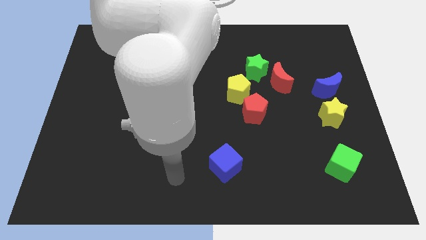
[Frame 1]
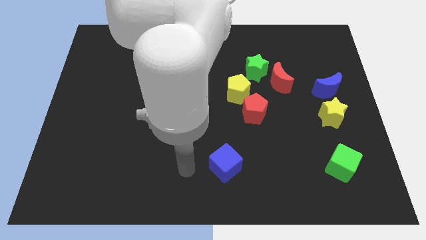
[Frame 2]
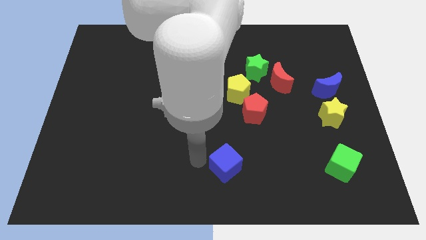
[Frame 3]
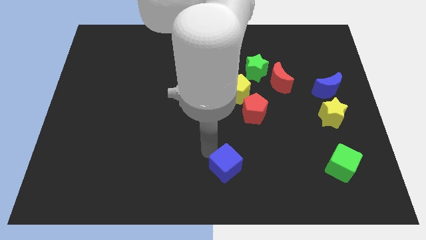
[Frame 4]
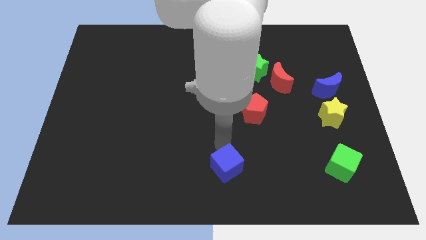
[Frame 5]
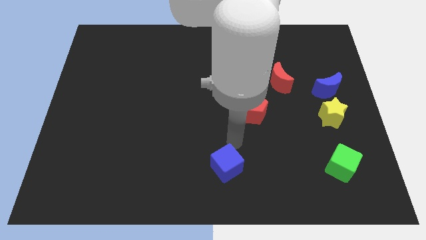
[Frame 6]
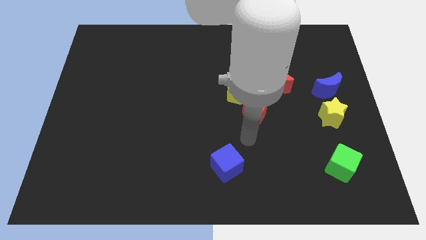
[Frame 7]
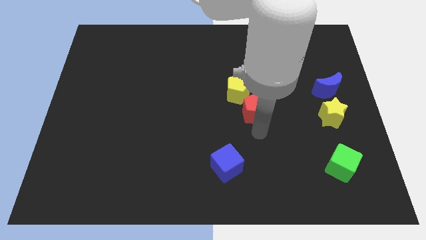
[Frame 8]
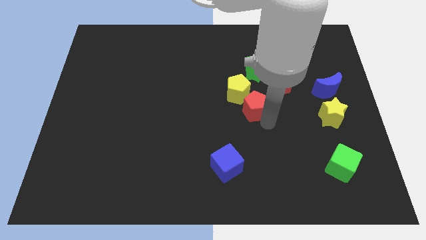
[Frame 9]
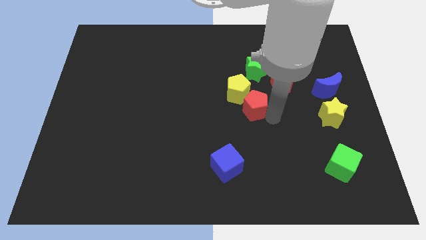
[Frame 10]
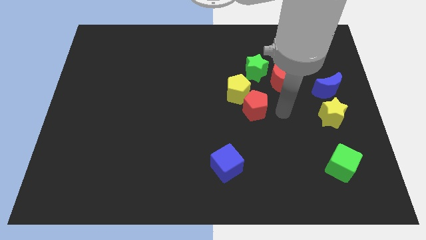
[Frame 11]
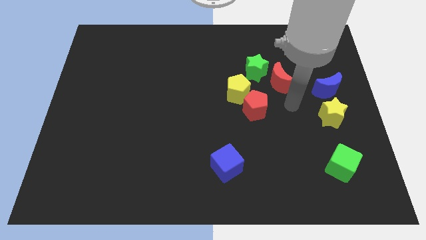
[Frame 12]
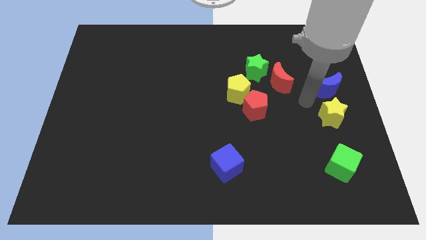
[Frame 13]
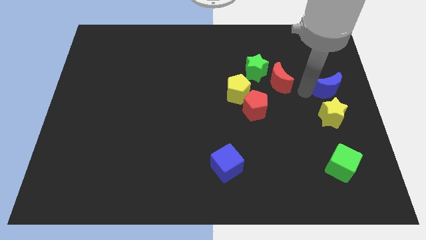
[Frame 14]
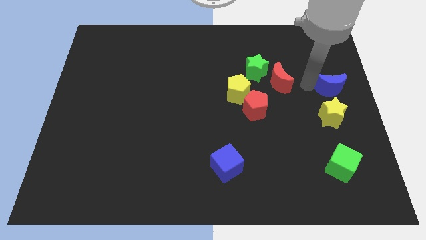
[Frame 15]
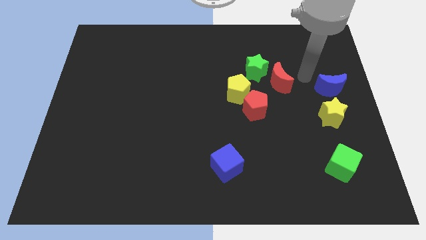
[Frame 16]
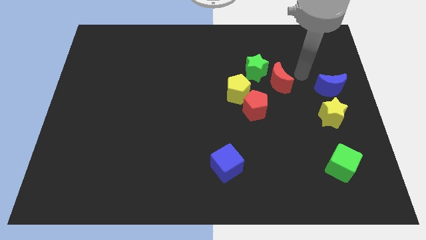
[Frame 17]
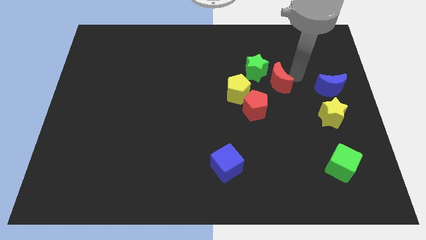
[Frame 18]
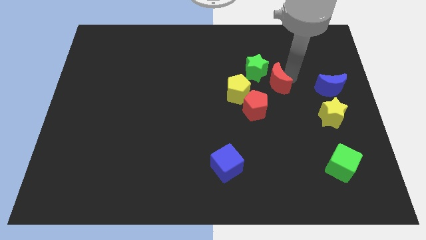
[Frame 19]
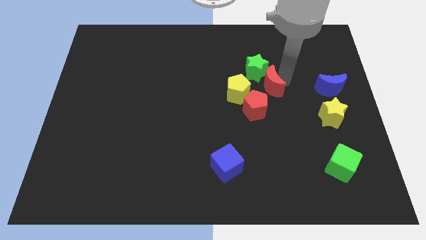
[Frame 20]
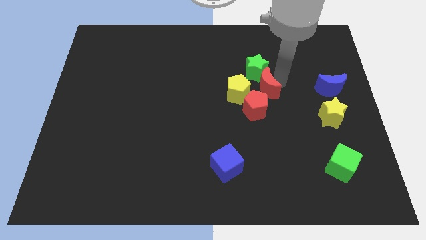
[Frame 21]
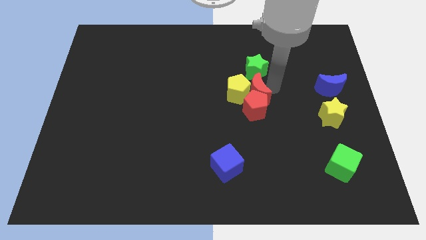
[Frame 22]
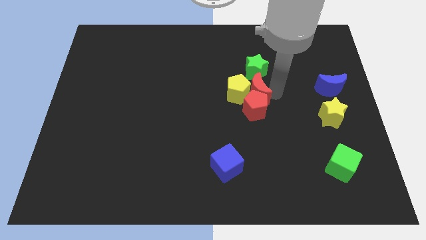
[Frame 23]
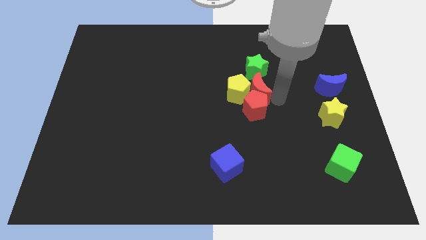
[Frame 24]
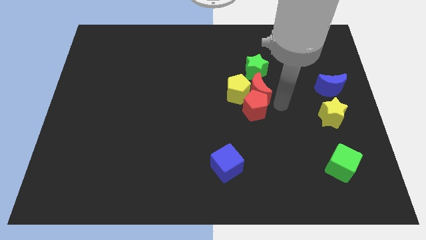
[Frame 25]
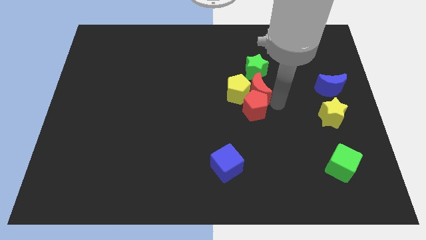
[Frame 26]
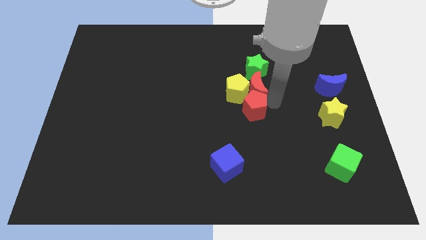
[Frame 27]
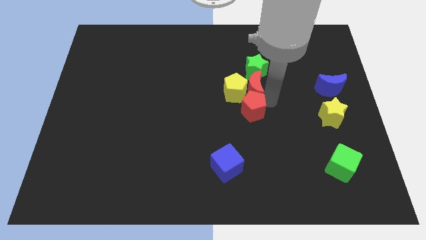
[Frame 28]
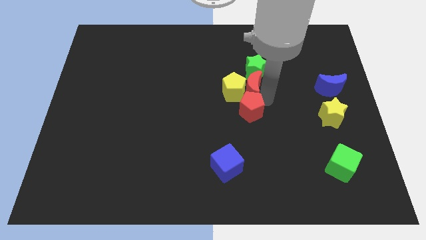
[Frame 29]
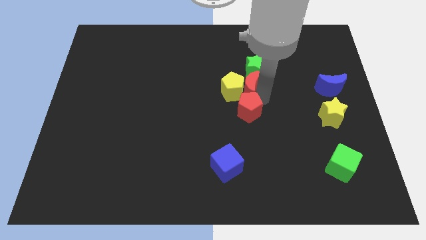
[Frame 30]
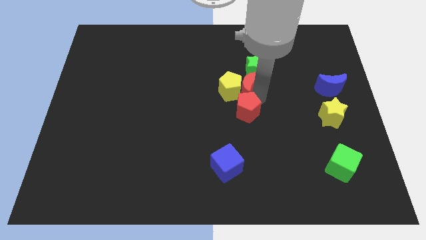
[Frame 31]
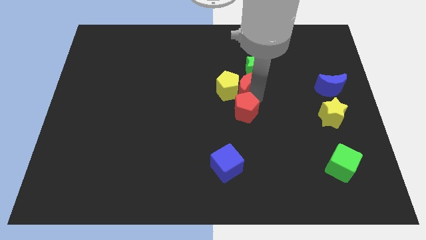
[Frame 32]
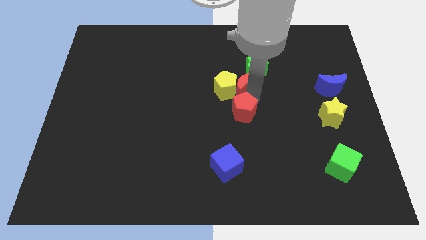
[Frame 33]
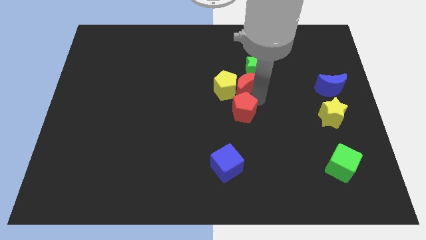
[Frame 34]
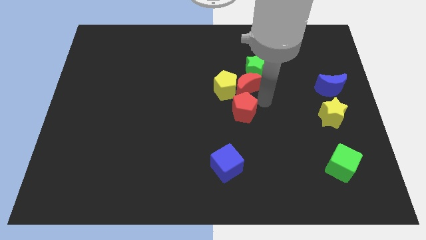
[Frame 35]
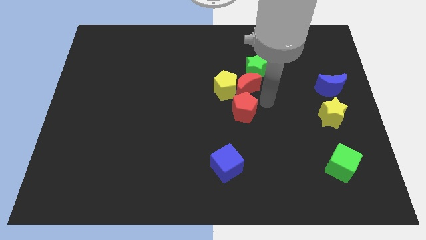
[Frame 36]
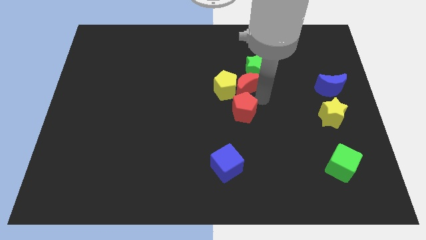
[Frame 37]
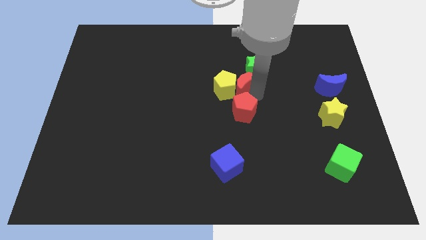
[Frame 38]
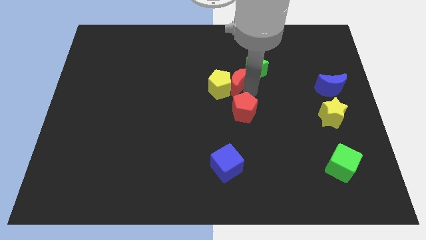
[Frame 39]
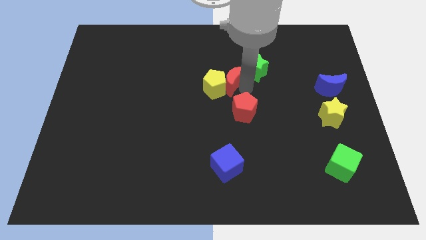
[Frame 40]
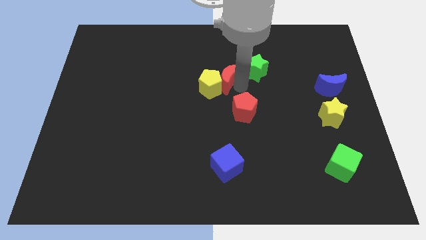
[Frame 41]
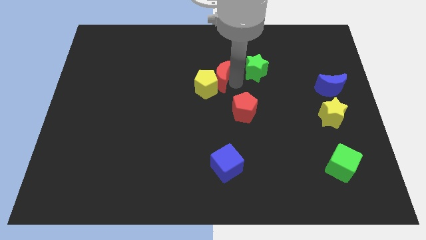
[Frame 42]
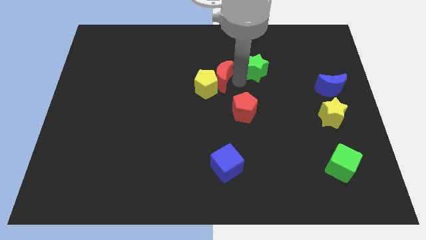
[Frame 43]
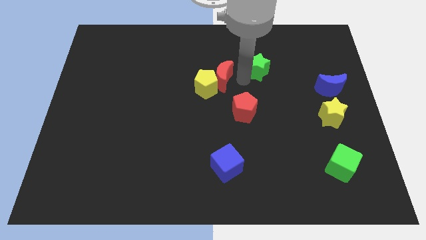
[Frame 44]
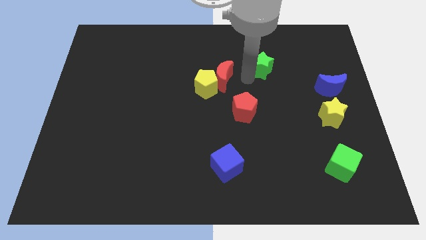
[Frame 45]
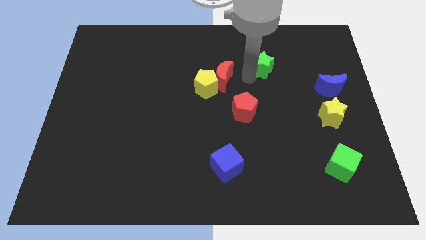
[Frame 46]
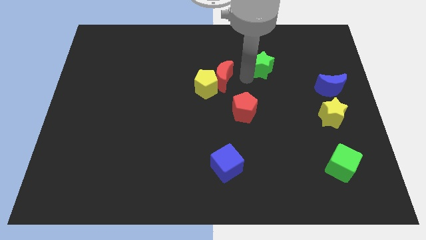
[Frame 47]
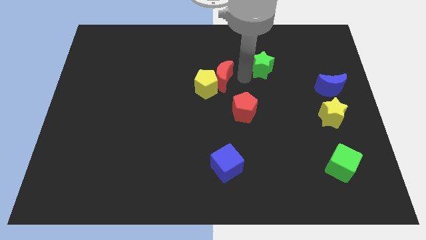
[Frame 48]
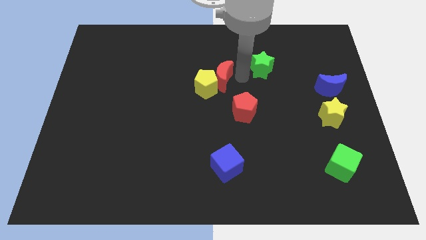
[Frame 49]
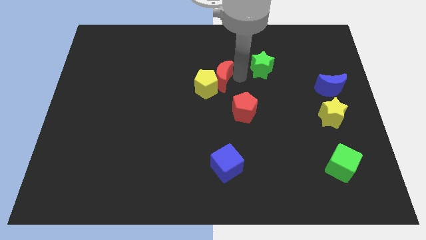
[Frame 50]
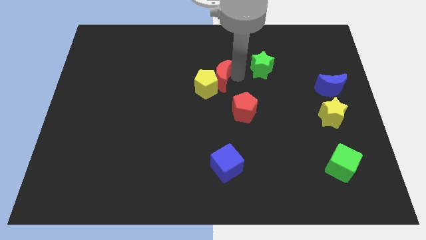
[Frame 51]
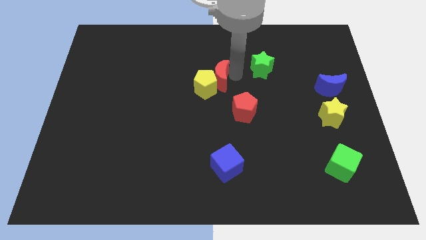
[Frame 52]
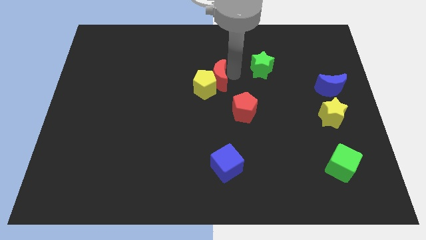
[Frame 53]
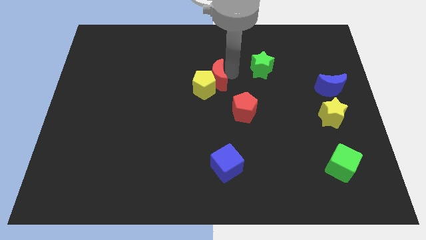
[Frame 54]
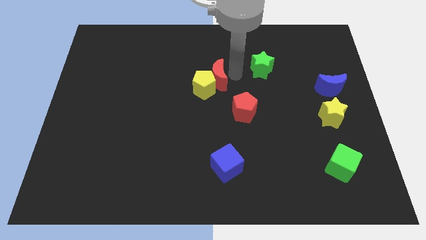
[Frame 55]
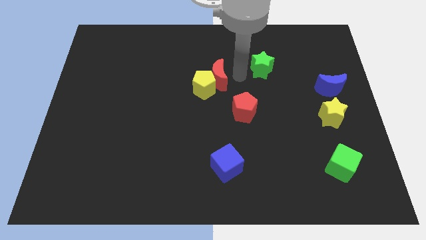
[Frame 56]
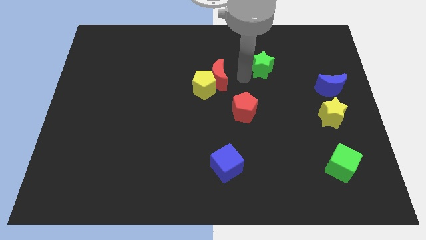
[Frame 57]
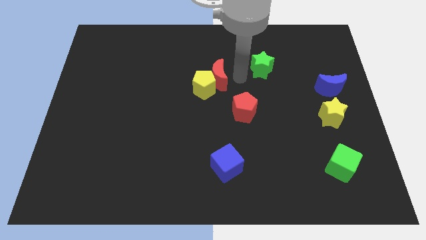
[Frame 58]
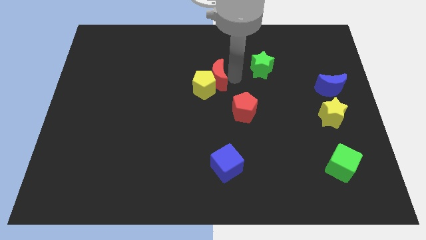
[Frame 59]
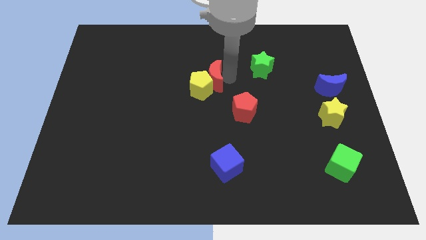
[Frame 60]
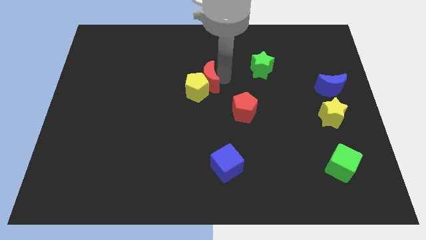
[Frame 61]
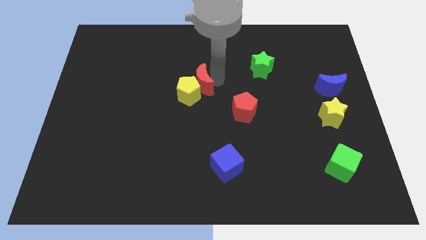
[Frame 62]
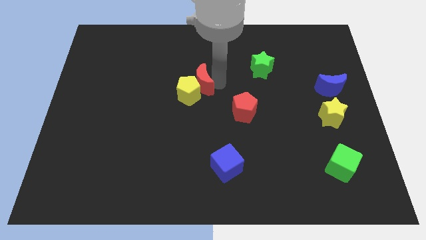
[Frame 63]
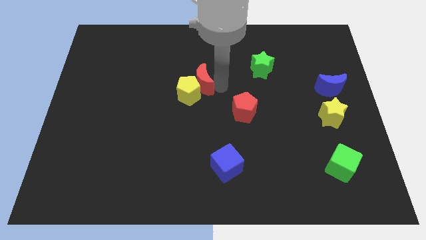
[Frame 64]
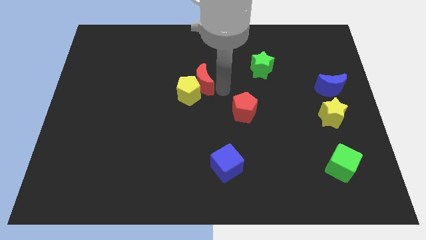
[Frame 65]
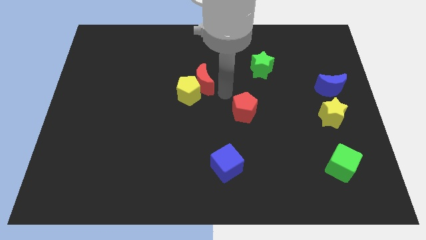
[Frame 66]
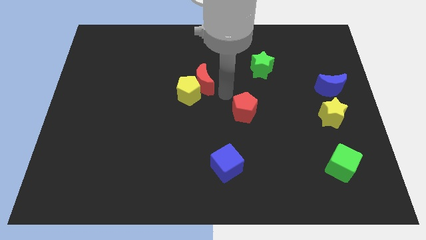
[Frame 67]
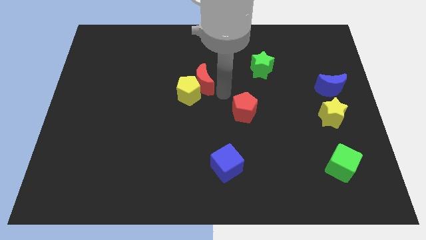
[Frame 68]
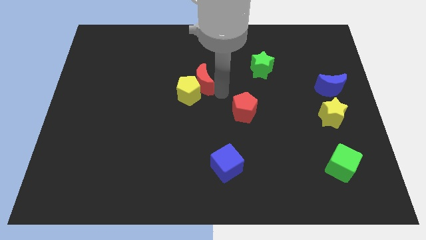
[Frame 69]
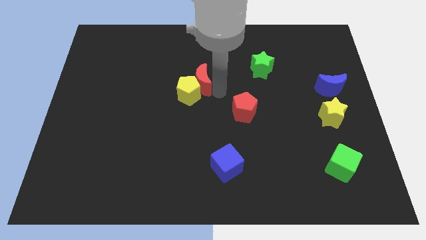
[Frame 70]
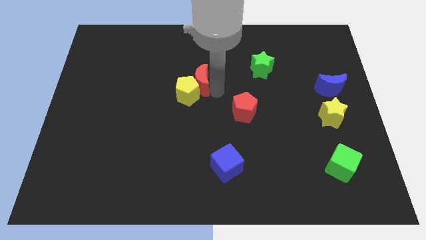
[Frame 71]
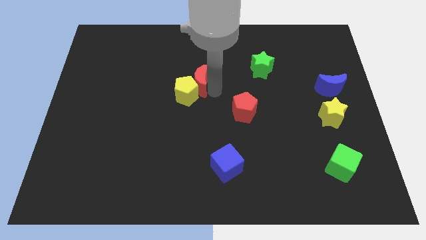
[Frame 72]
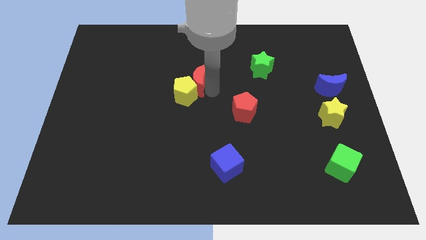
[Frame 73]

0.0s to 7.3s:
slide the red moon to the left

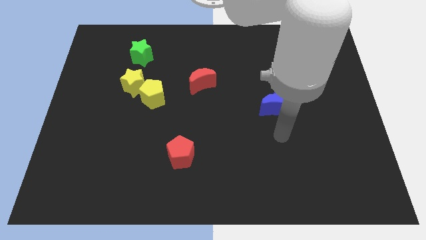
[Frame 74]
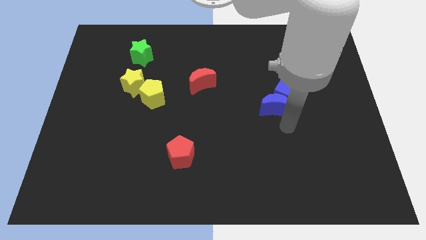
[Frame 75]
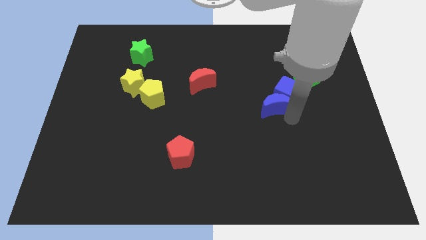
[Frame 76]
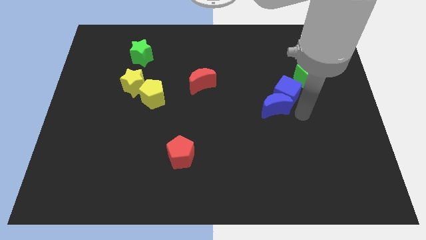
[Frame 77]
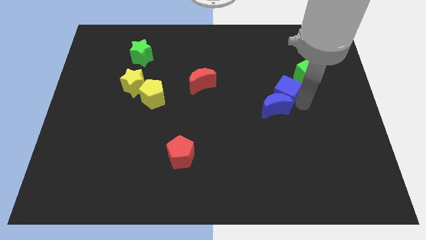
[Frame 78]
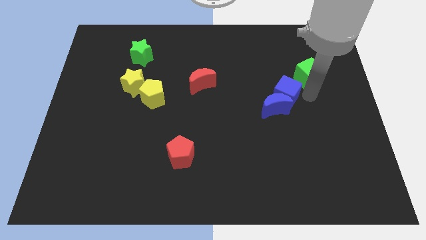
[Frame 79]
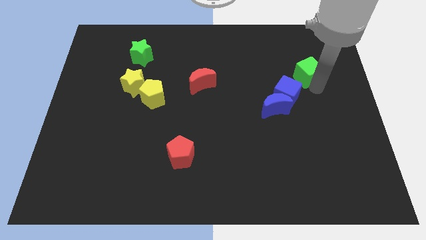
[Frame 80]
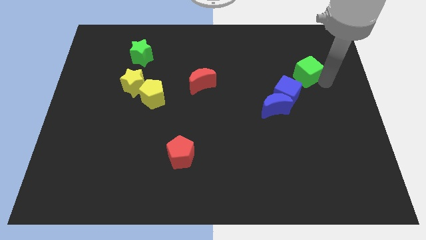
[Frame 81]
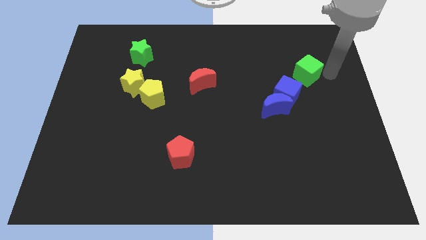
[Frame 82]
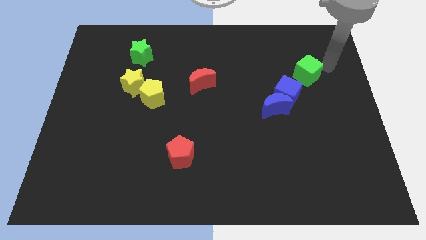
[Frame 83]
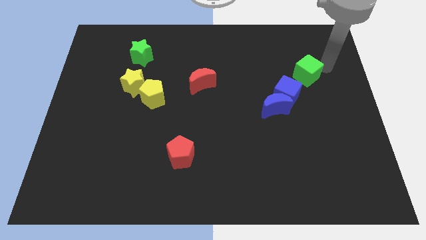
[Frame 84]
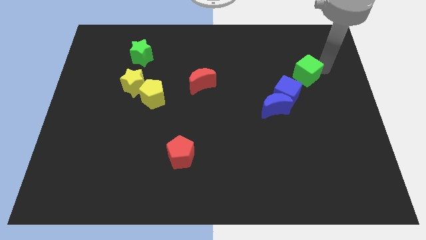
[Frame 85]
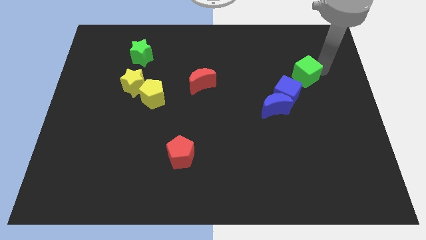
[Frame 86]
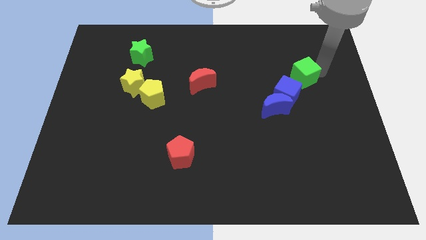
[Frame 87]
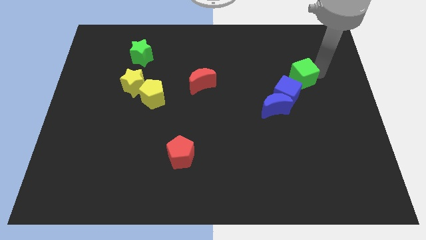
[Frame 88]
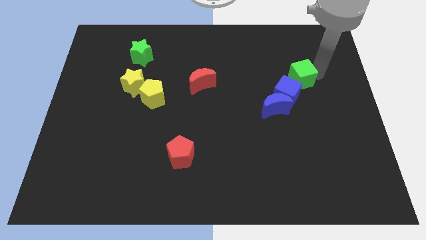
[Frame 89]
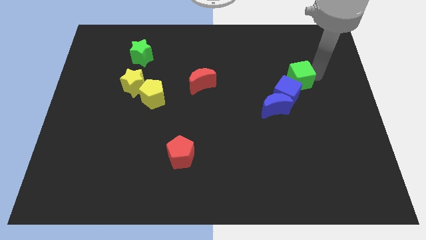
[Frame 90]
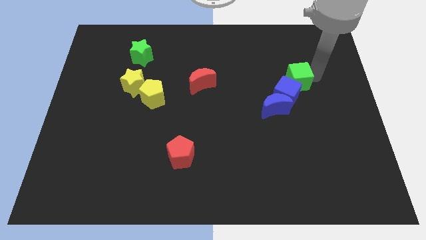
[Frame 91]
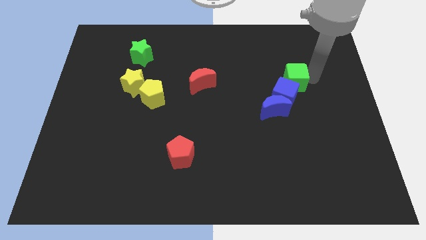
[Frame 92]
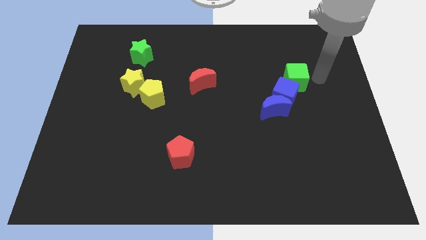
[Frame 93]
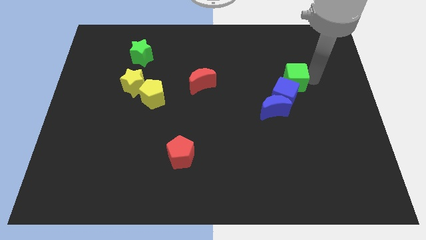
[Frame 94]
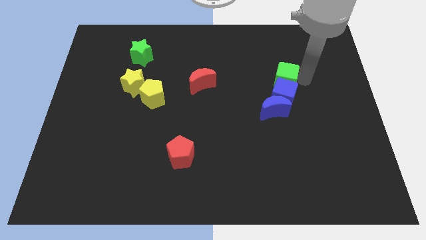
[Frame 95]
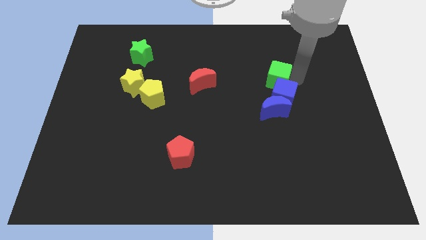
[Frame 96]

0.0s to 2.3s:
slightly slide the green cube left
